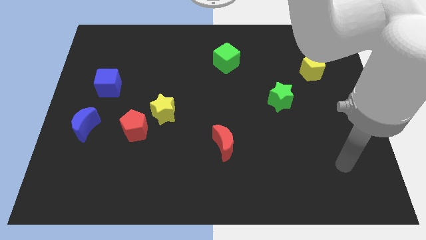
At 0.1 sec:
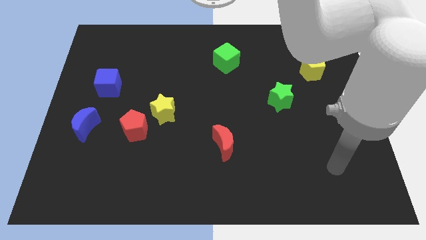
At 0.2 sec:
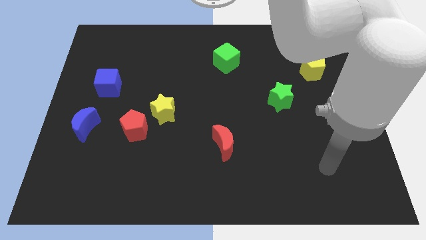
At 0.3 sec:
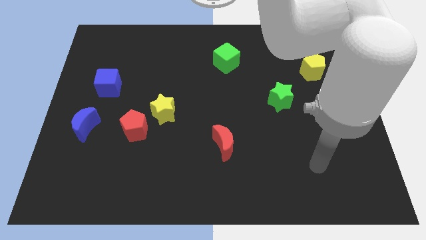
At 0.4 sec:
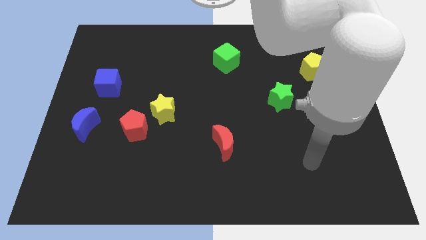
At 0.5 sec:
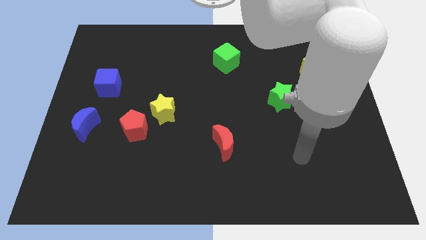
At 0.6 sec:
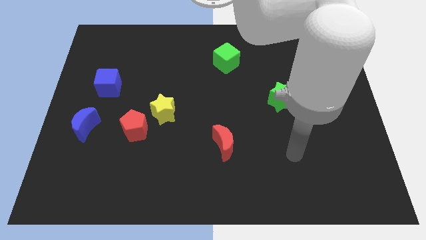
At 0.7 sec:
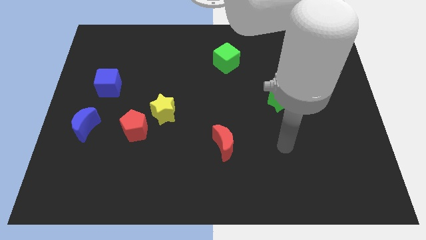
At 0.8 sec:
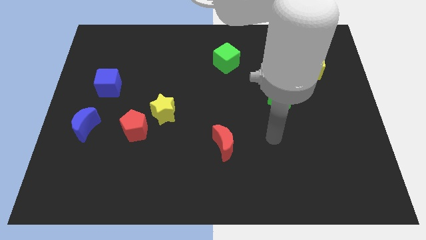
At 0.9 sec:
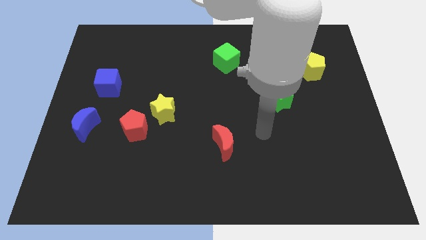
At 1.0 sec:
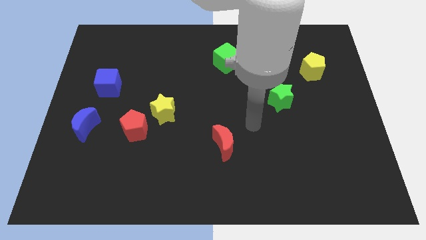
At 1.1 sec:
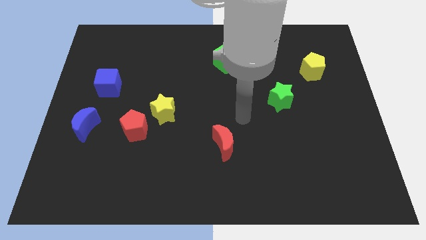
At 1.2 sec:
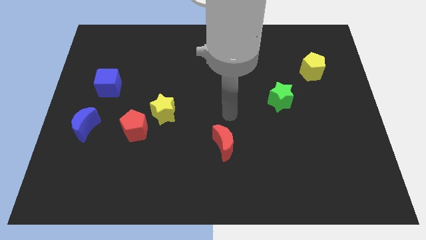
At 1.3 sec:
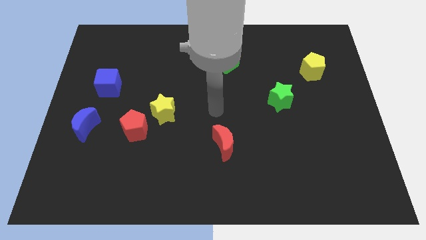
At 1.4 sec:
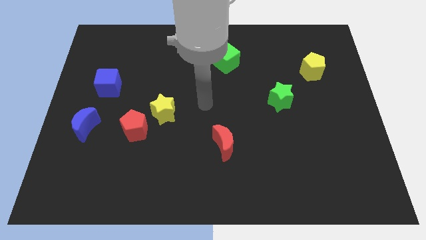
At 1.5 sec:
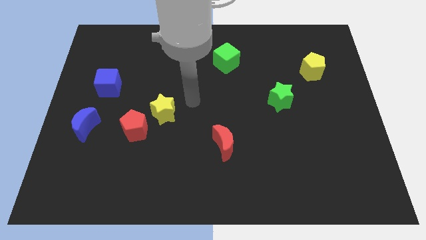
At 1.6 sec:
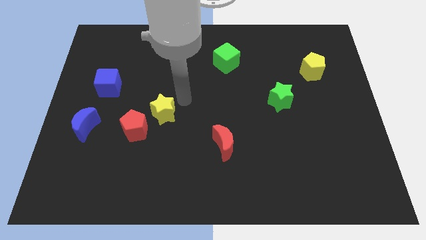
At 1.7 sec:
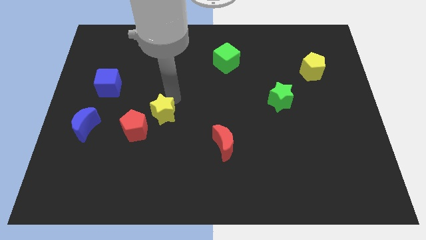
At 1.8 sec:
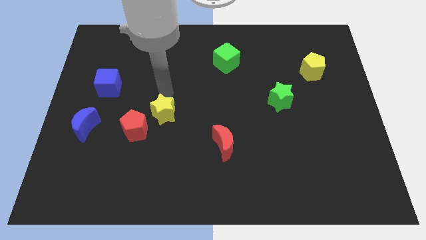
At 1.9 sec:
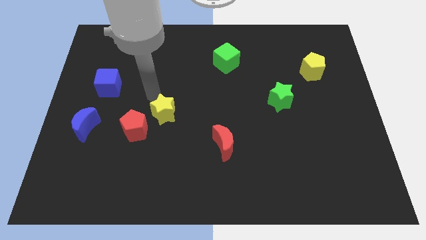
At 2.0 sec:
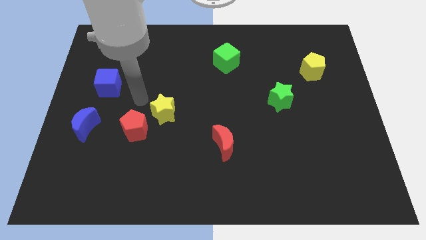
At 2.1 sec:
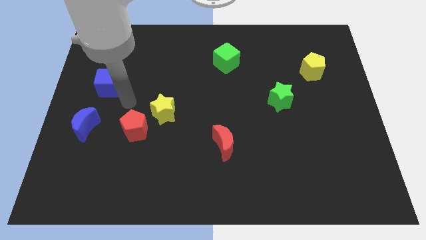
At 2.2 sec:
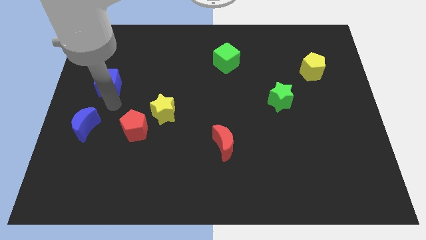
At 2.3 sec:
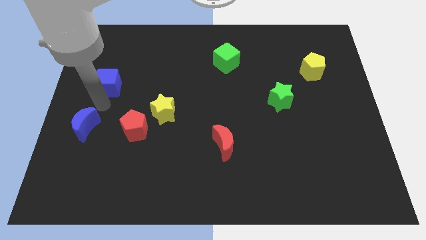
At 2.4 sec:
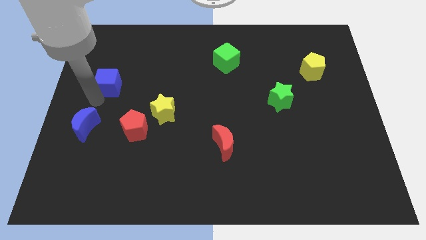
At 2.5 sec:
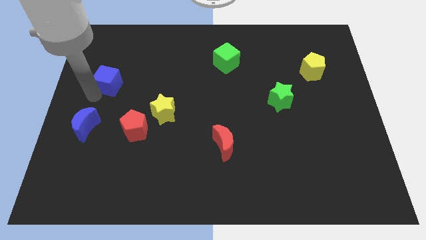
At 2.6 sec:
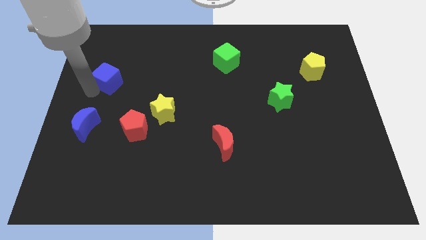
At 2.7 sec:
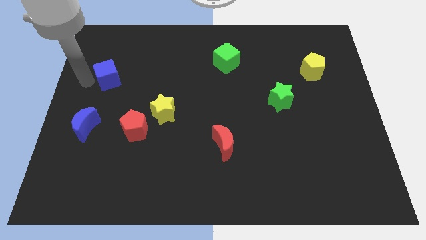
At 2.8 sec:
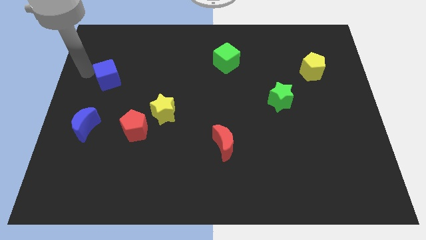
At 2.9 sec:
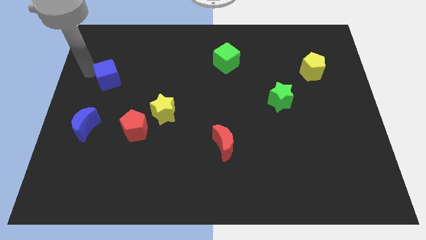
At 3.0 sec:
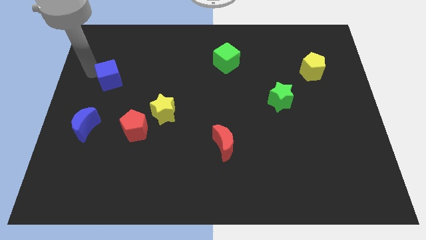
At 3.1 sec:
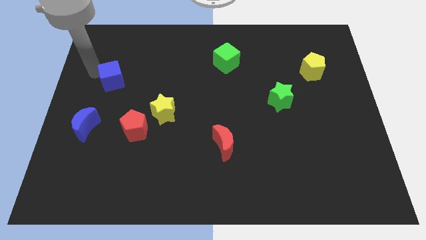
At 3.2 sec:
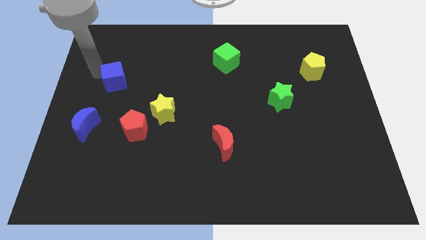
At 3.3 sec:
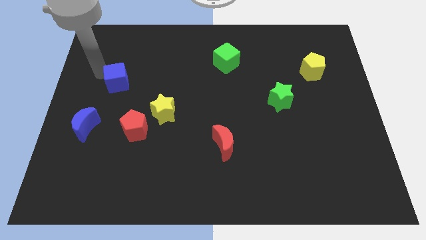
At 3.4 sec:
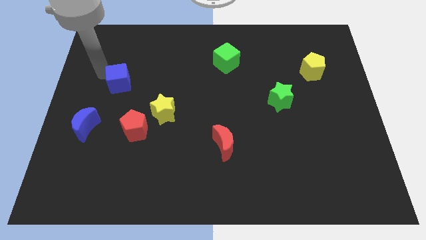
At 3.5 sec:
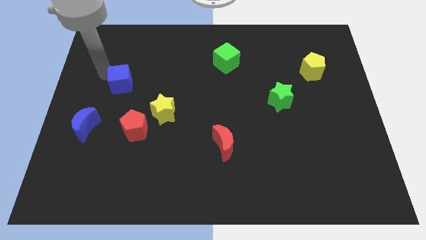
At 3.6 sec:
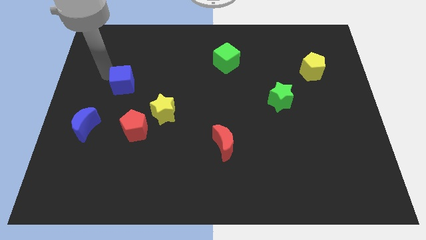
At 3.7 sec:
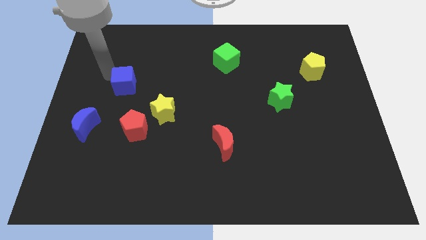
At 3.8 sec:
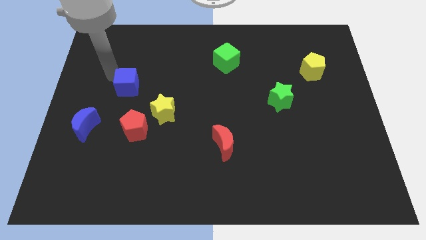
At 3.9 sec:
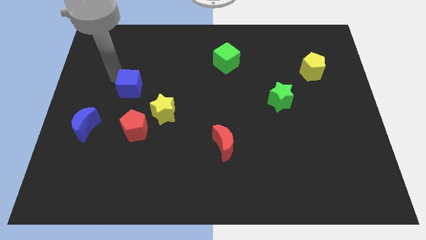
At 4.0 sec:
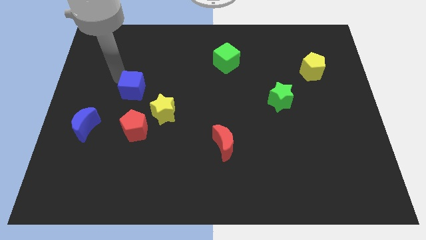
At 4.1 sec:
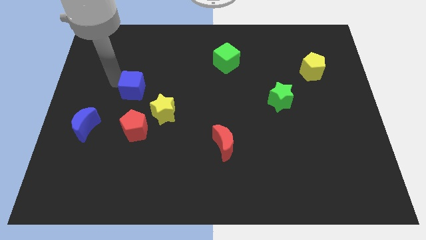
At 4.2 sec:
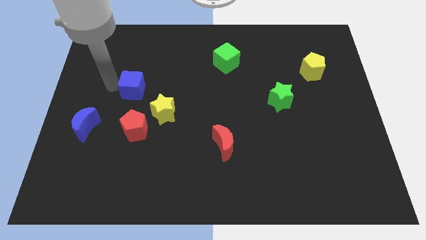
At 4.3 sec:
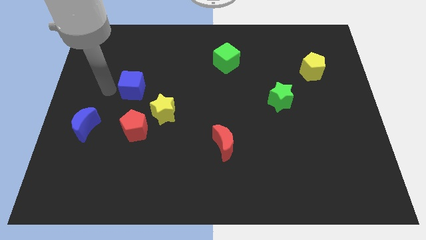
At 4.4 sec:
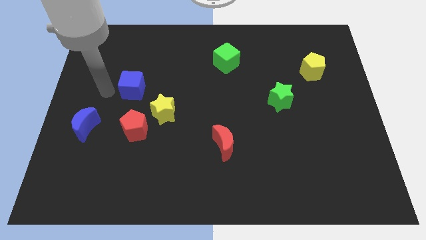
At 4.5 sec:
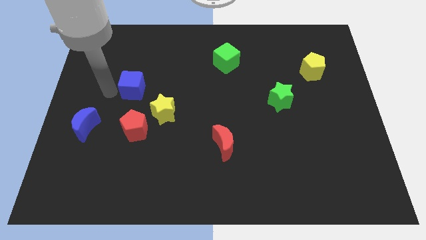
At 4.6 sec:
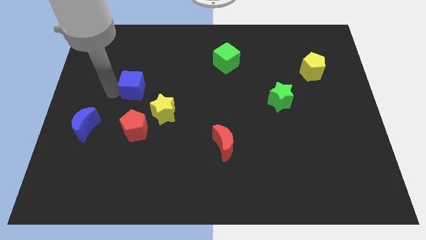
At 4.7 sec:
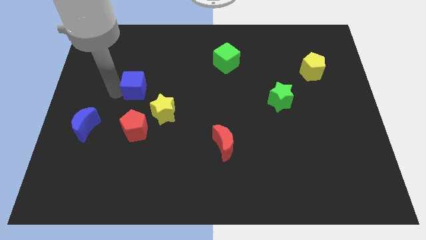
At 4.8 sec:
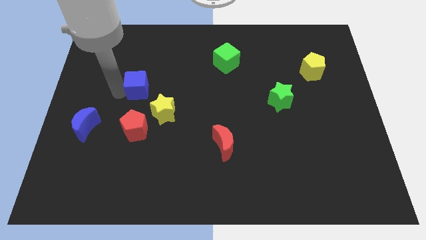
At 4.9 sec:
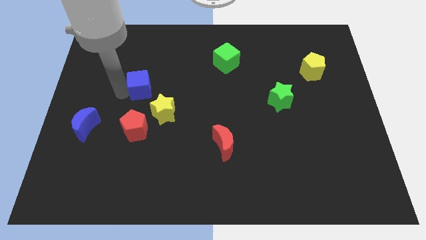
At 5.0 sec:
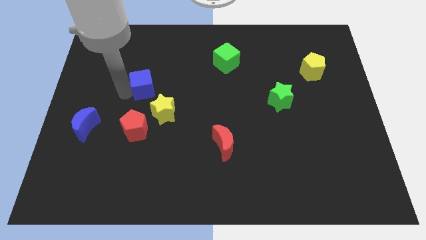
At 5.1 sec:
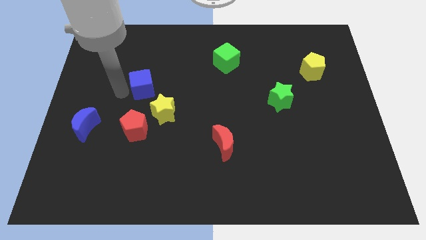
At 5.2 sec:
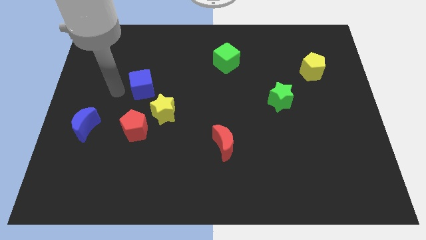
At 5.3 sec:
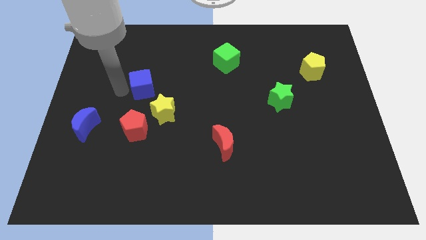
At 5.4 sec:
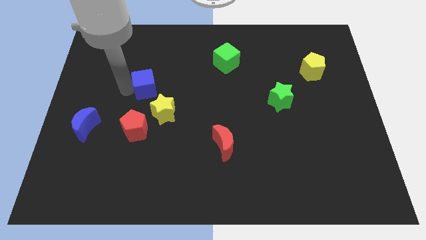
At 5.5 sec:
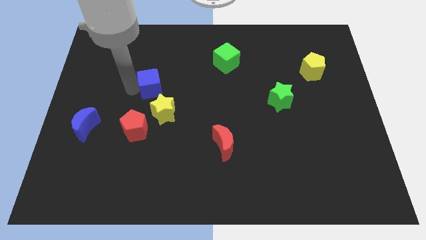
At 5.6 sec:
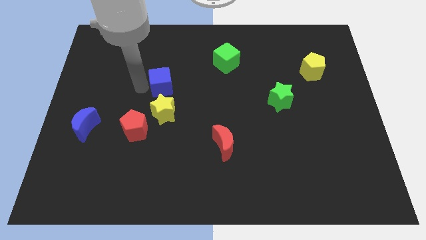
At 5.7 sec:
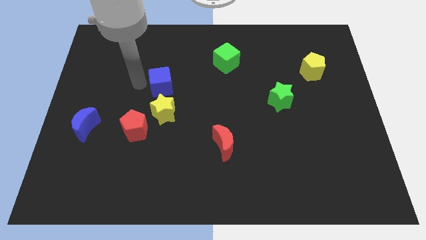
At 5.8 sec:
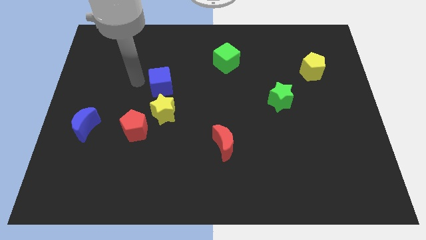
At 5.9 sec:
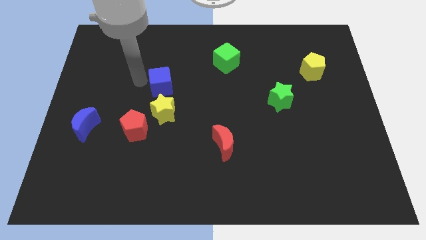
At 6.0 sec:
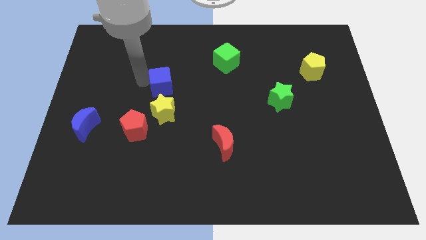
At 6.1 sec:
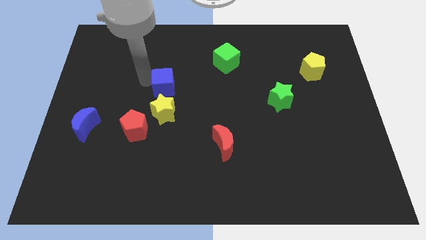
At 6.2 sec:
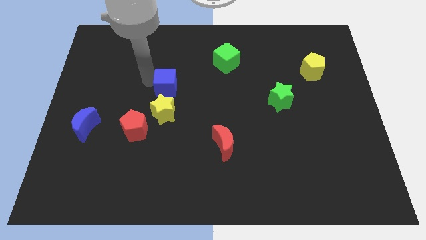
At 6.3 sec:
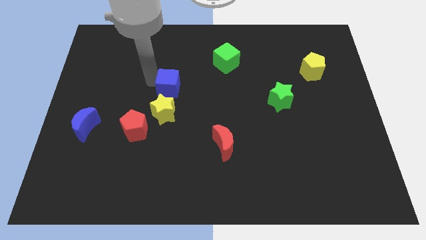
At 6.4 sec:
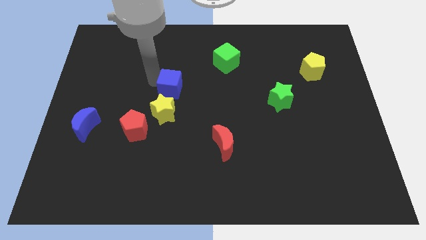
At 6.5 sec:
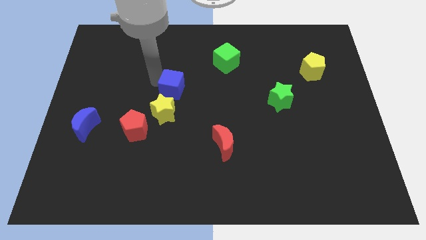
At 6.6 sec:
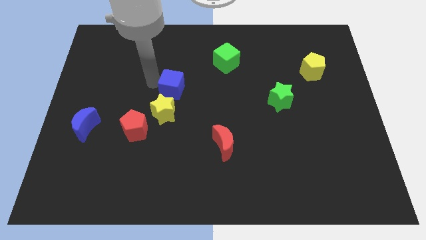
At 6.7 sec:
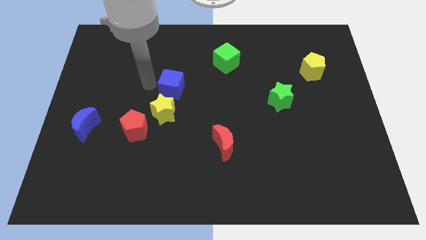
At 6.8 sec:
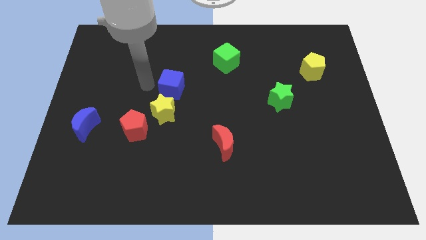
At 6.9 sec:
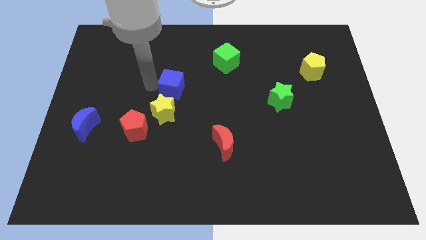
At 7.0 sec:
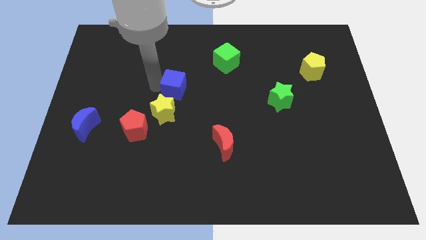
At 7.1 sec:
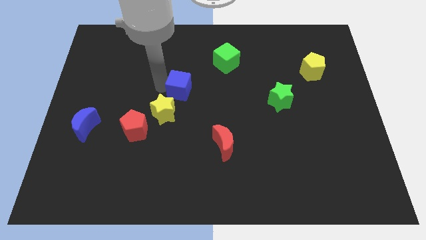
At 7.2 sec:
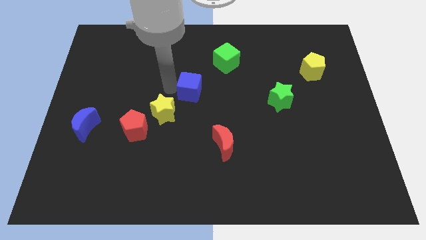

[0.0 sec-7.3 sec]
push the blue cube to the right

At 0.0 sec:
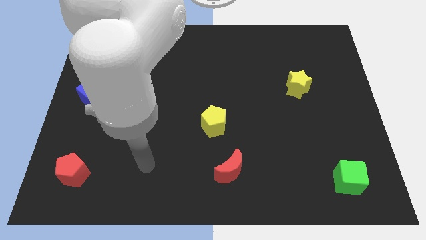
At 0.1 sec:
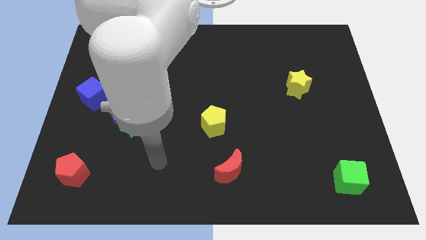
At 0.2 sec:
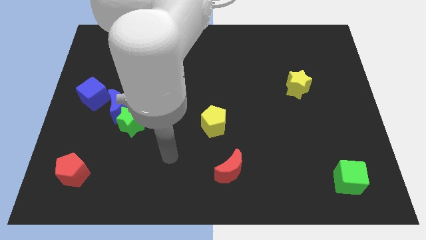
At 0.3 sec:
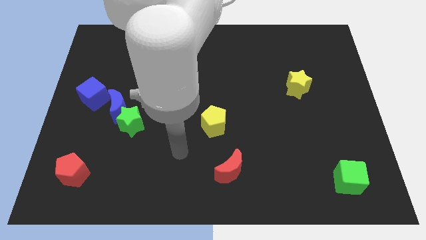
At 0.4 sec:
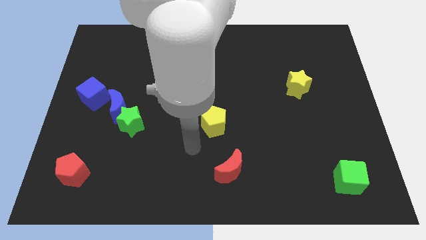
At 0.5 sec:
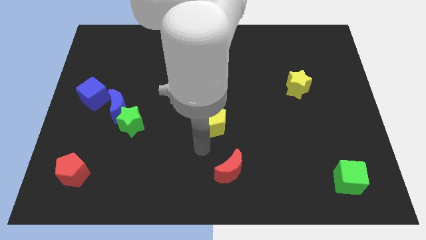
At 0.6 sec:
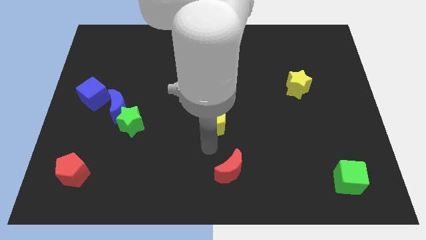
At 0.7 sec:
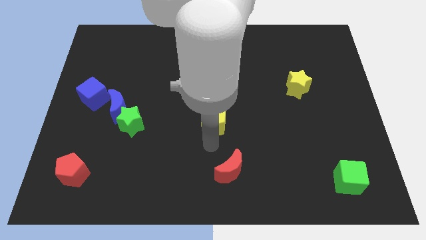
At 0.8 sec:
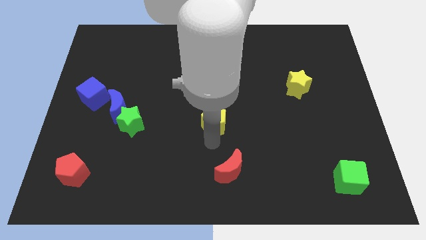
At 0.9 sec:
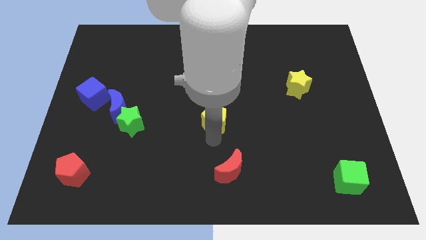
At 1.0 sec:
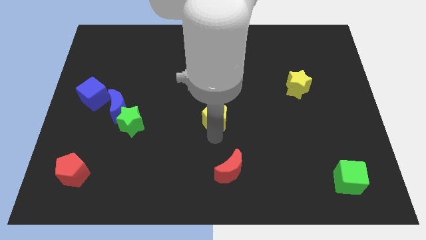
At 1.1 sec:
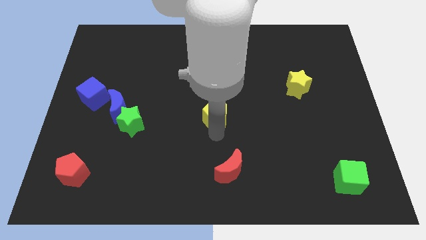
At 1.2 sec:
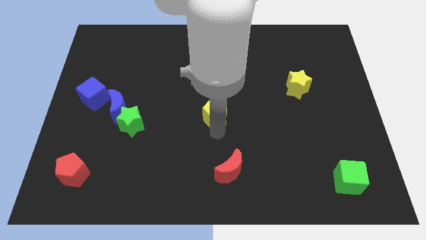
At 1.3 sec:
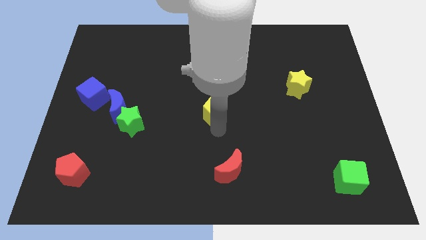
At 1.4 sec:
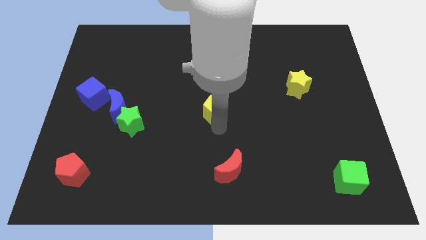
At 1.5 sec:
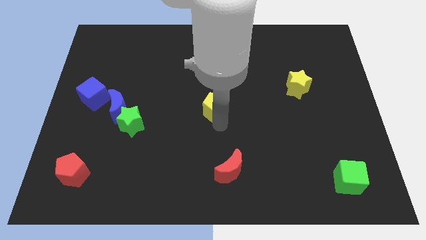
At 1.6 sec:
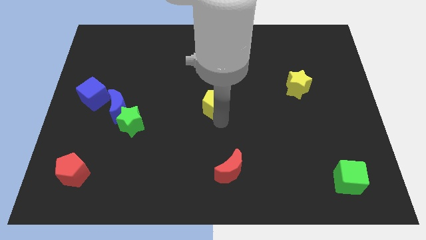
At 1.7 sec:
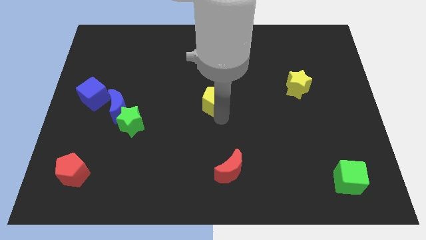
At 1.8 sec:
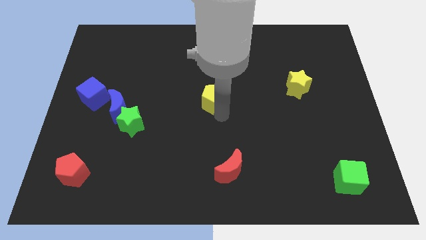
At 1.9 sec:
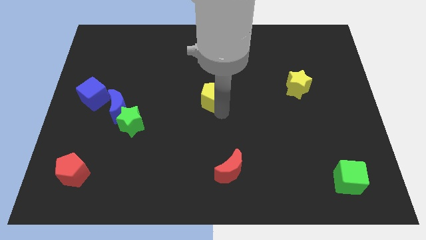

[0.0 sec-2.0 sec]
move the yellow pentagon up slightly
